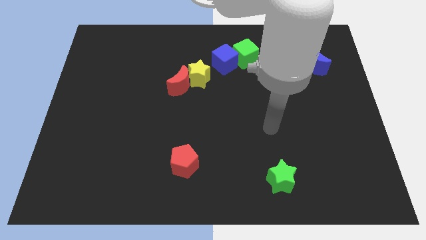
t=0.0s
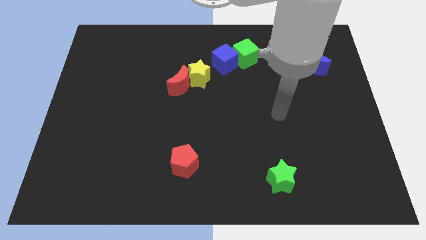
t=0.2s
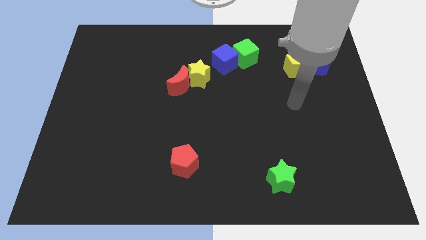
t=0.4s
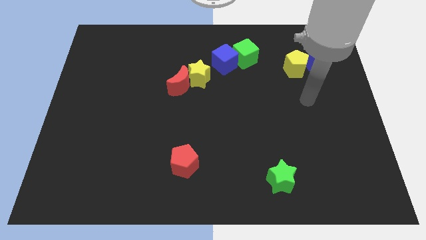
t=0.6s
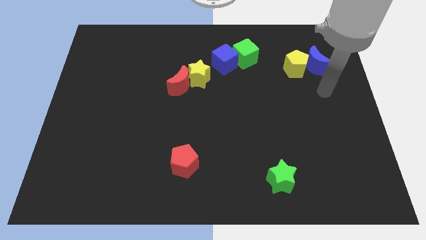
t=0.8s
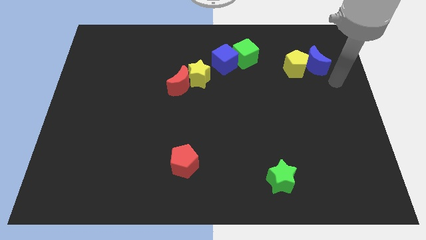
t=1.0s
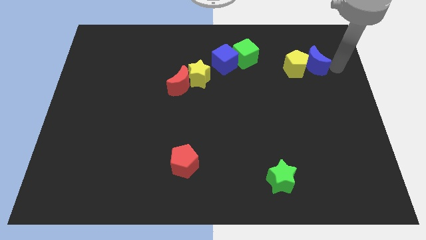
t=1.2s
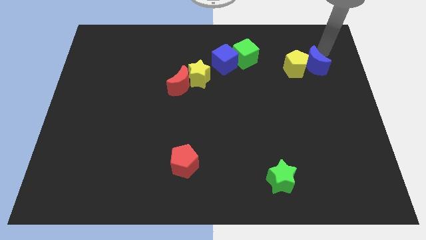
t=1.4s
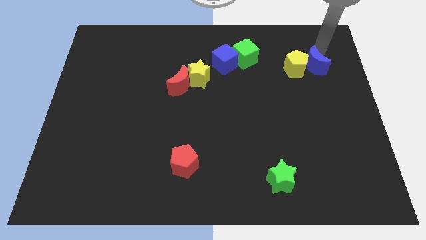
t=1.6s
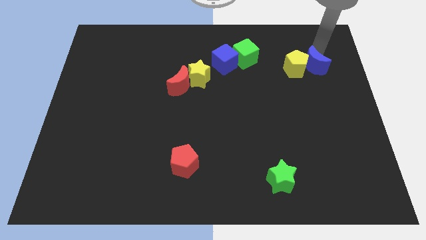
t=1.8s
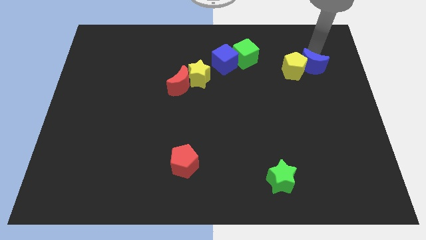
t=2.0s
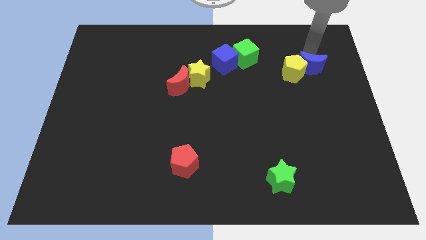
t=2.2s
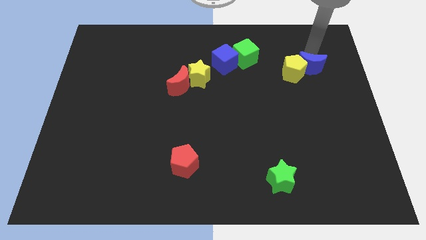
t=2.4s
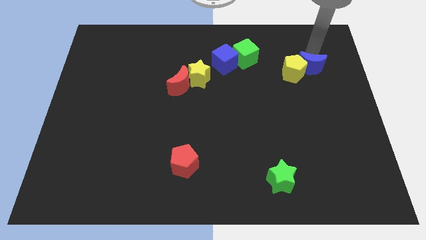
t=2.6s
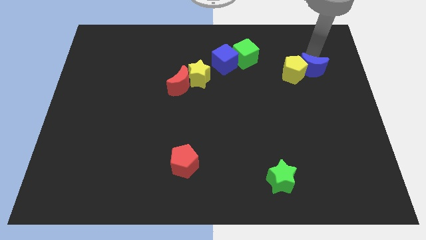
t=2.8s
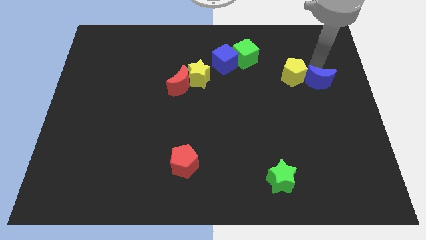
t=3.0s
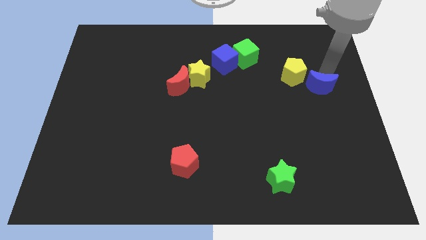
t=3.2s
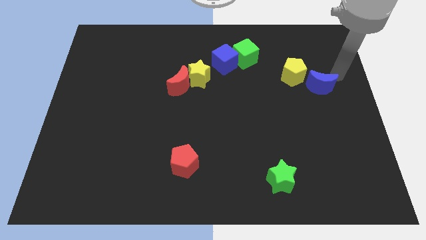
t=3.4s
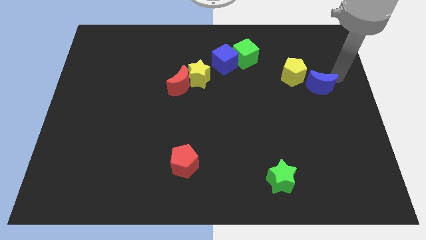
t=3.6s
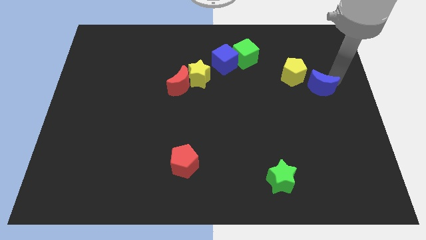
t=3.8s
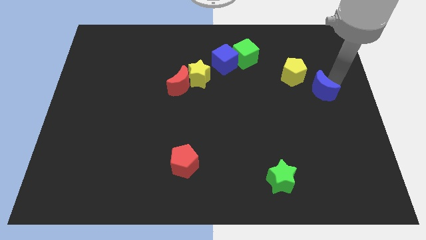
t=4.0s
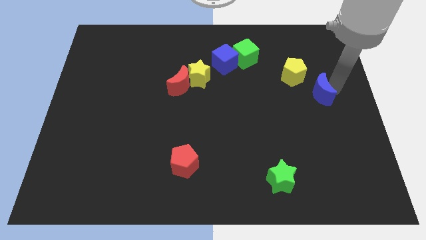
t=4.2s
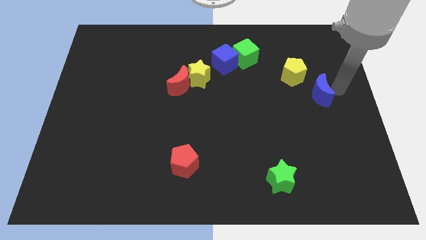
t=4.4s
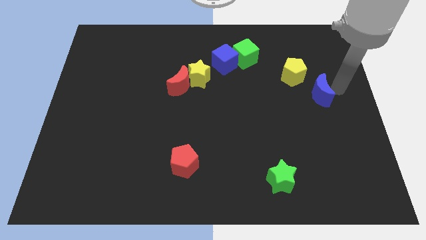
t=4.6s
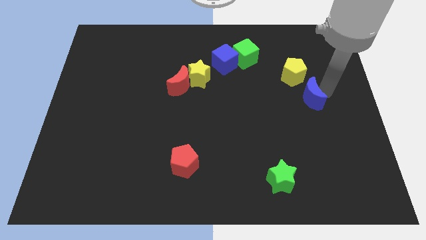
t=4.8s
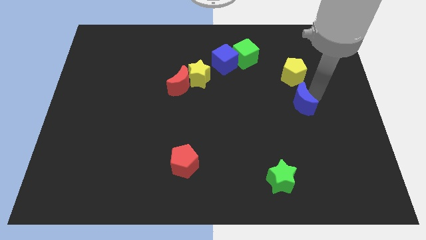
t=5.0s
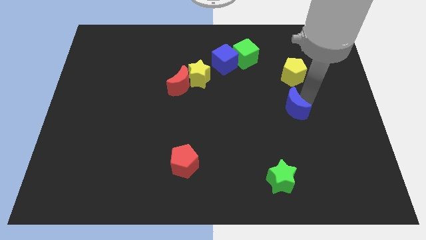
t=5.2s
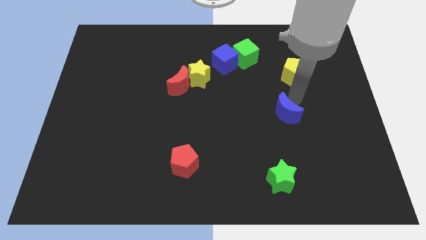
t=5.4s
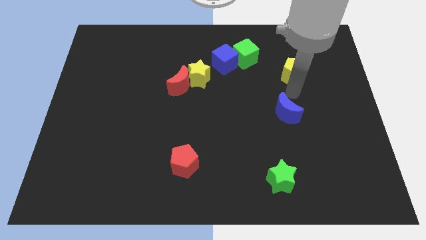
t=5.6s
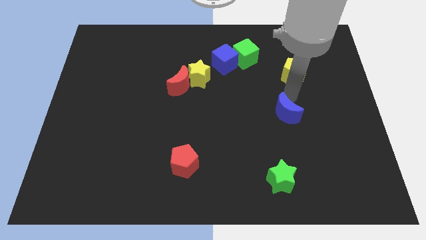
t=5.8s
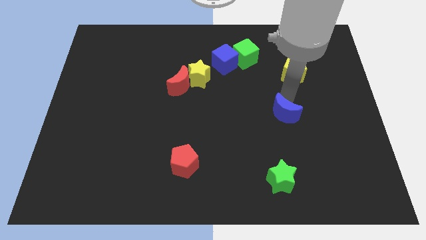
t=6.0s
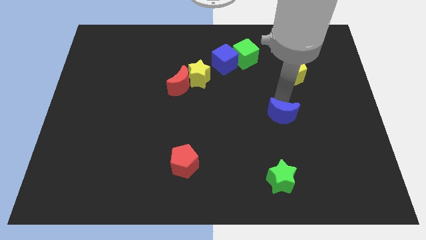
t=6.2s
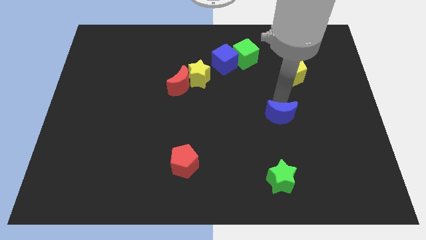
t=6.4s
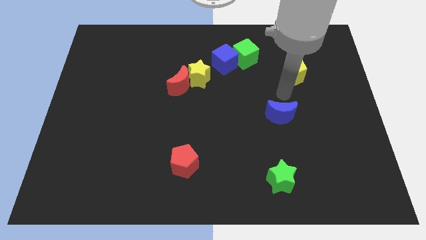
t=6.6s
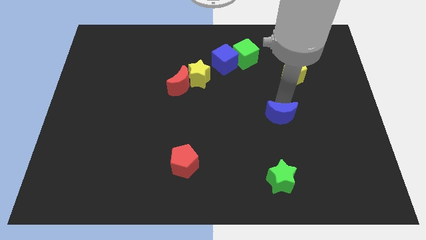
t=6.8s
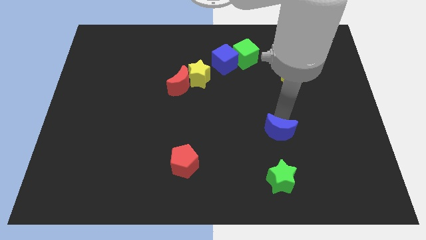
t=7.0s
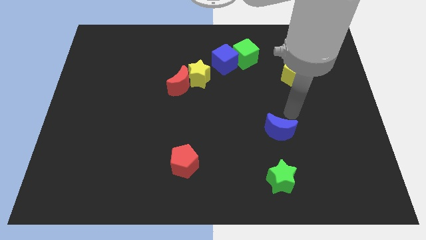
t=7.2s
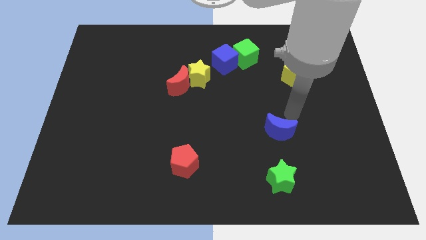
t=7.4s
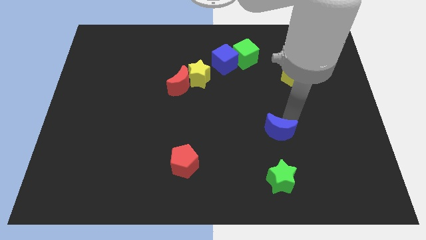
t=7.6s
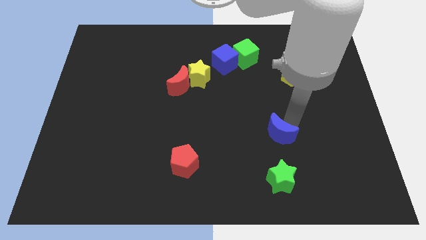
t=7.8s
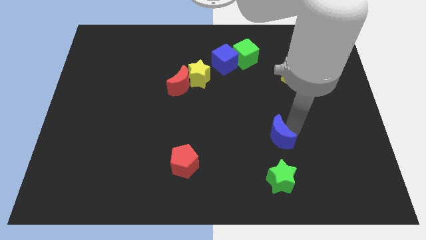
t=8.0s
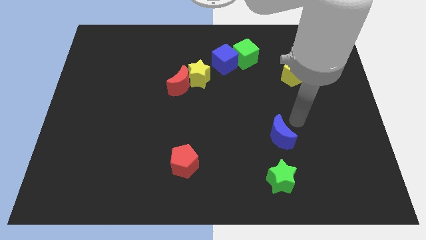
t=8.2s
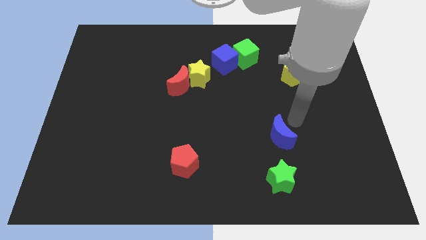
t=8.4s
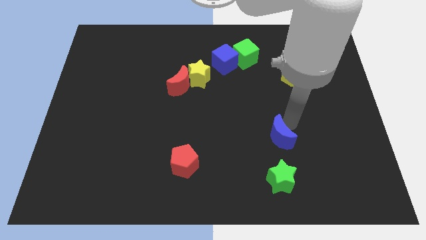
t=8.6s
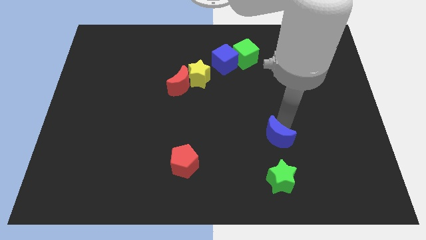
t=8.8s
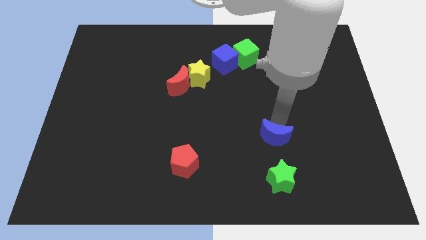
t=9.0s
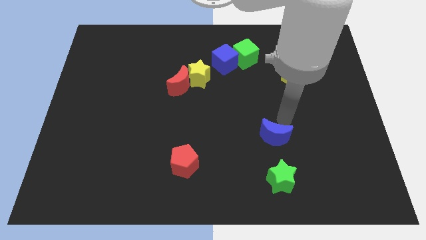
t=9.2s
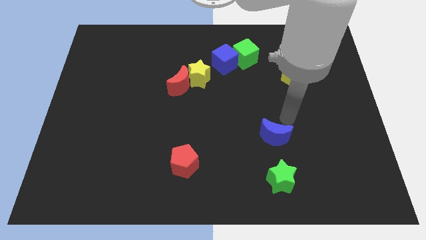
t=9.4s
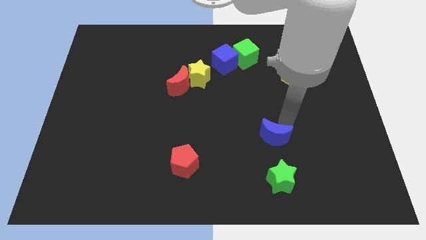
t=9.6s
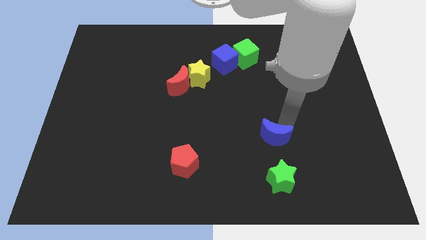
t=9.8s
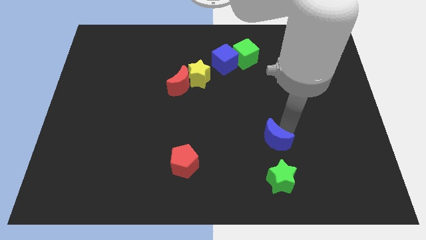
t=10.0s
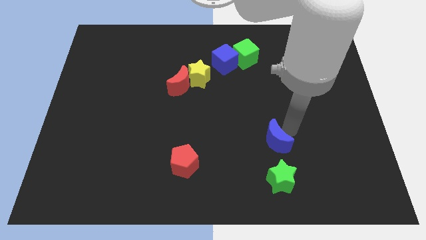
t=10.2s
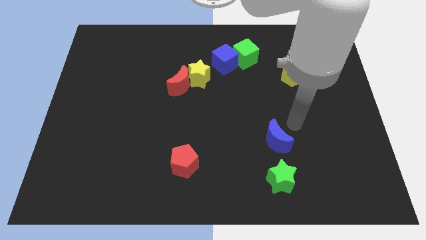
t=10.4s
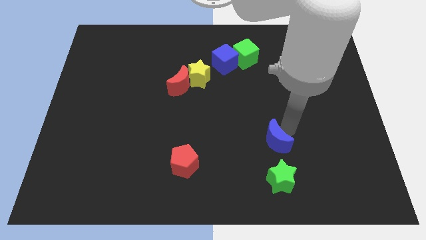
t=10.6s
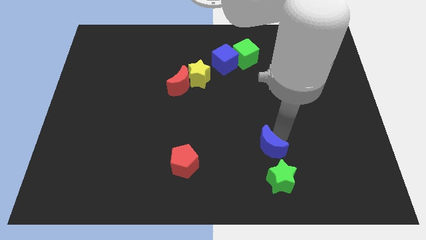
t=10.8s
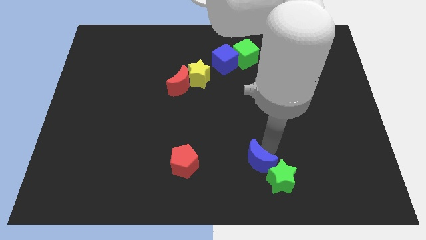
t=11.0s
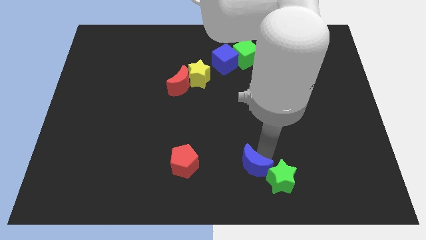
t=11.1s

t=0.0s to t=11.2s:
move the blue moon to the bottom side

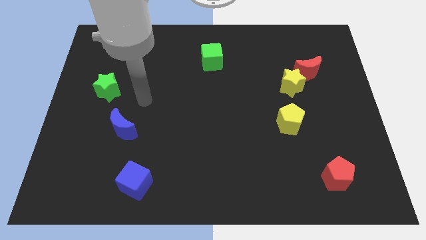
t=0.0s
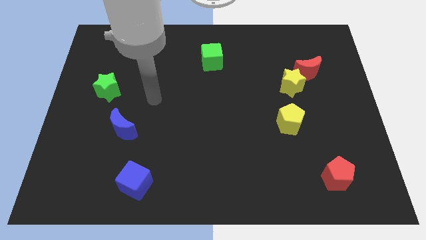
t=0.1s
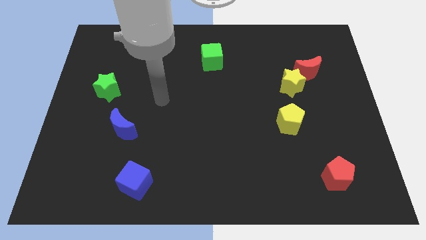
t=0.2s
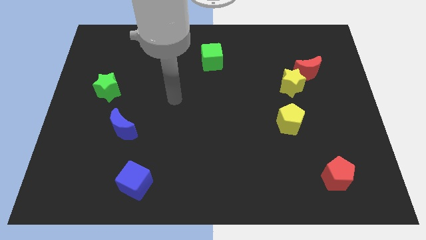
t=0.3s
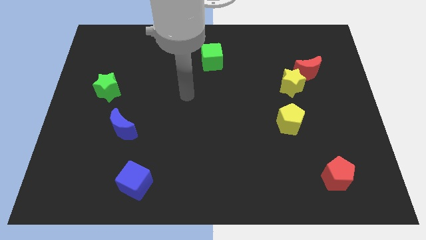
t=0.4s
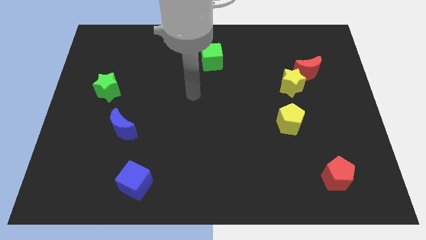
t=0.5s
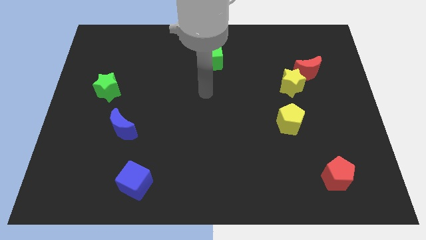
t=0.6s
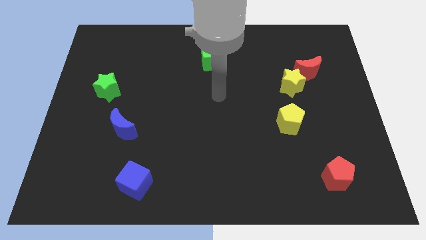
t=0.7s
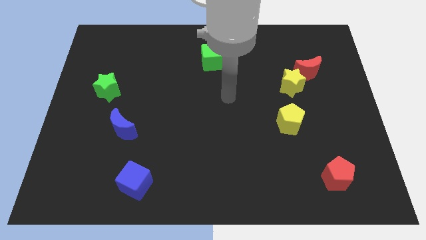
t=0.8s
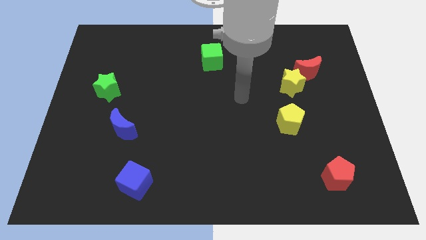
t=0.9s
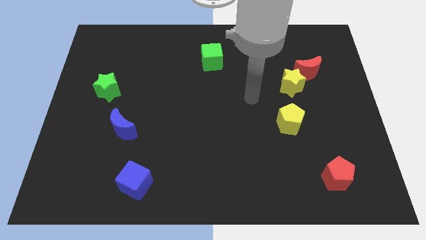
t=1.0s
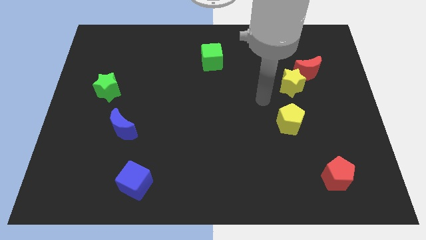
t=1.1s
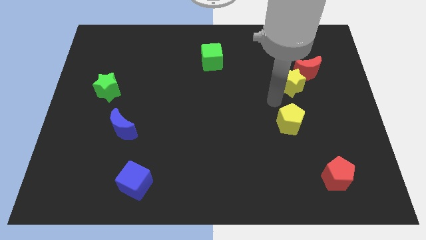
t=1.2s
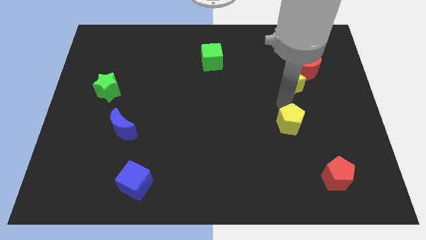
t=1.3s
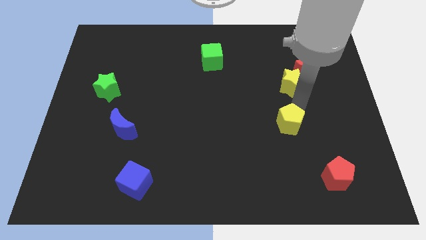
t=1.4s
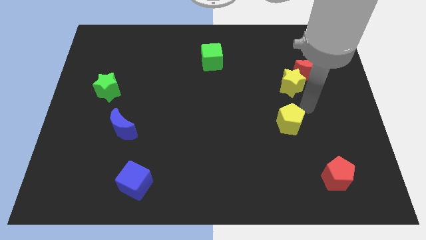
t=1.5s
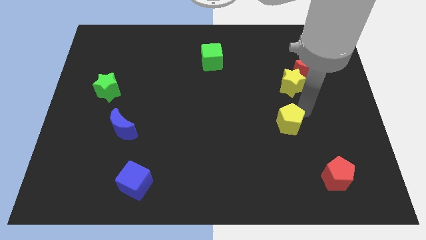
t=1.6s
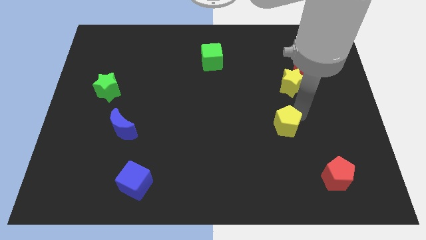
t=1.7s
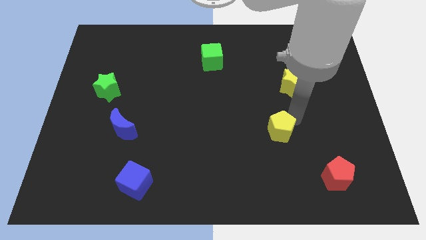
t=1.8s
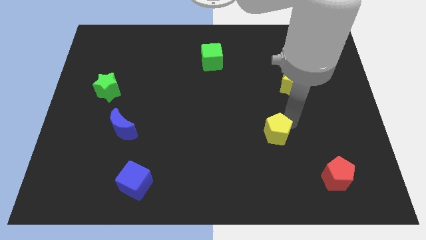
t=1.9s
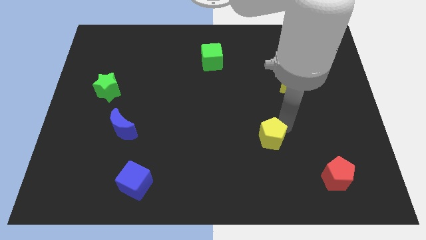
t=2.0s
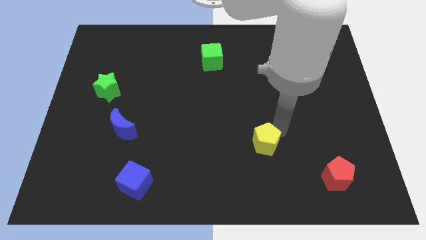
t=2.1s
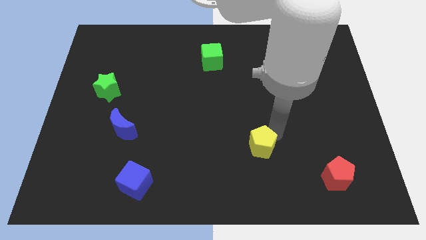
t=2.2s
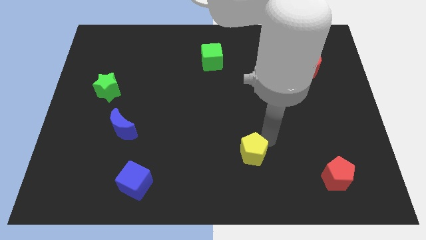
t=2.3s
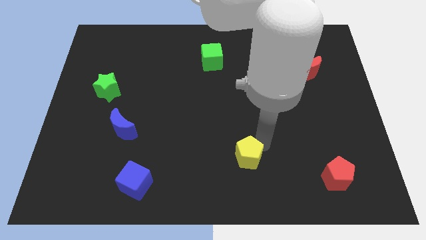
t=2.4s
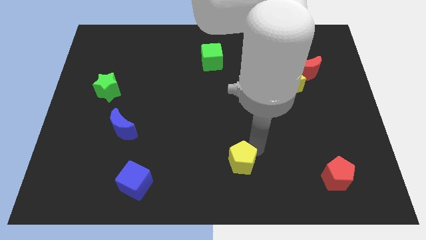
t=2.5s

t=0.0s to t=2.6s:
move the yellow pentagon to the bottom
